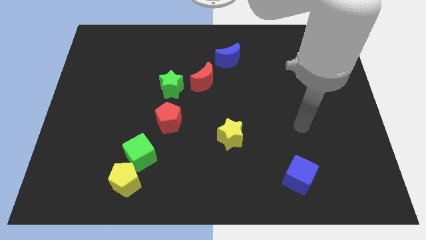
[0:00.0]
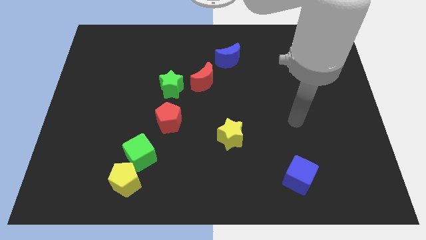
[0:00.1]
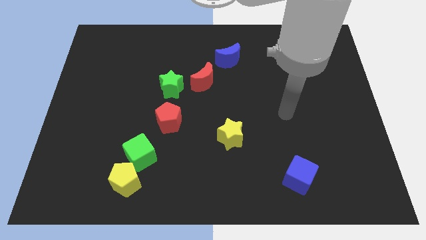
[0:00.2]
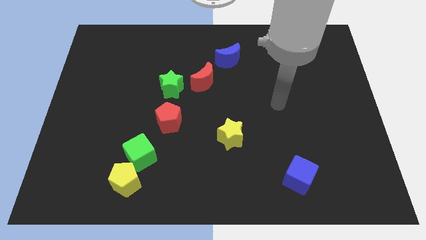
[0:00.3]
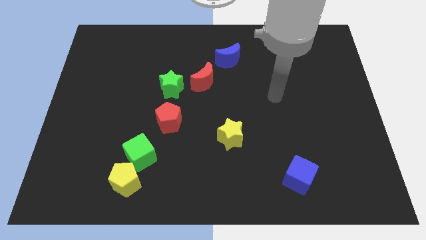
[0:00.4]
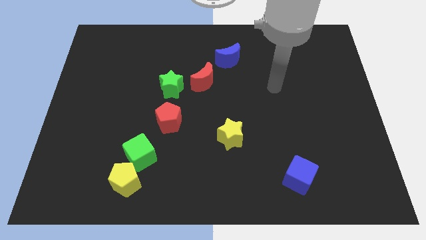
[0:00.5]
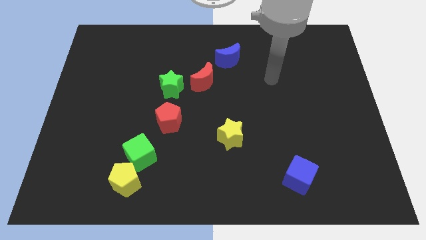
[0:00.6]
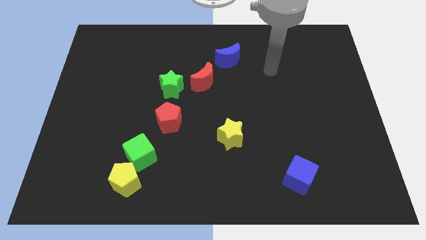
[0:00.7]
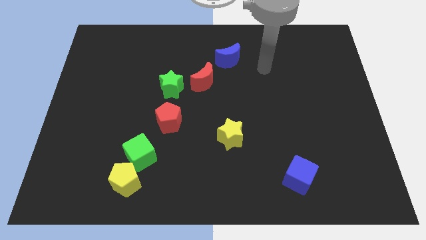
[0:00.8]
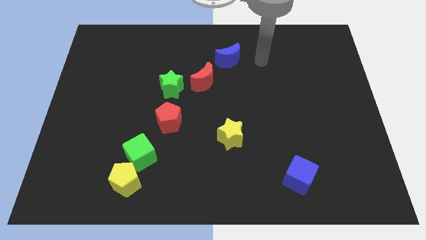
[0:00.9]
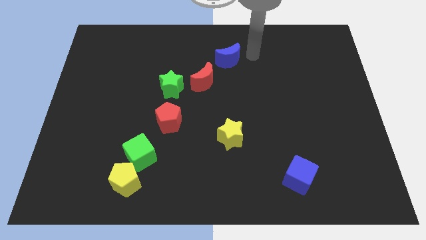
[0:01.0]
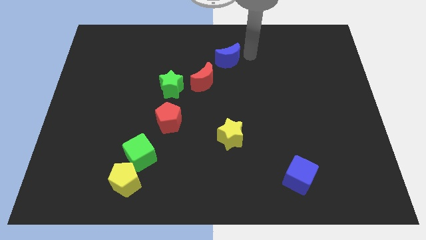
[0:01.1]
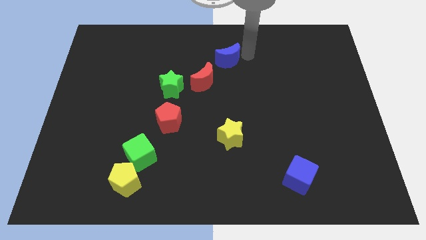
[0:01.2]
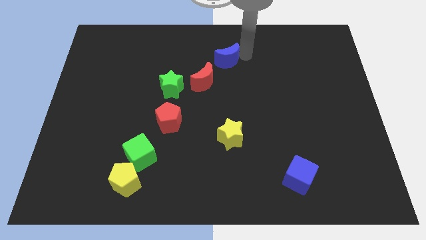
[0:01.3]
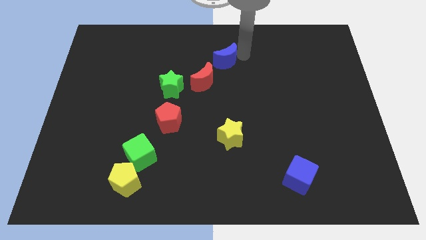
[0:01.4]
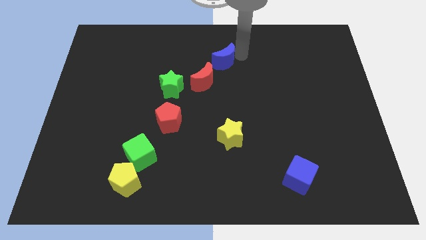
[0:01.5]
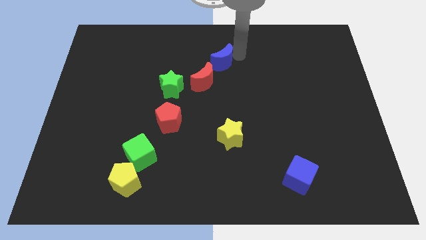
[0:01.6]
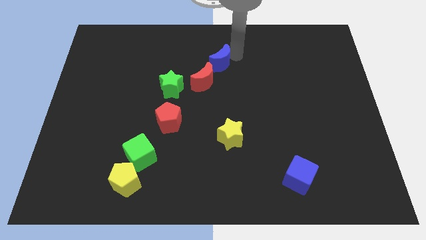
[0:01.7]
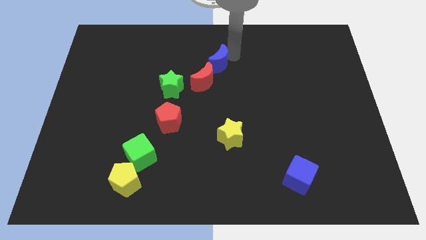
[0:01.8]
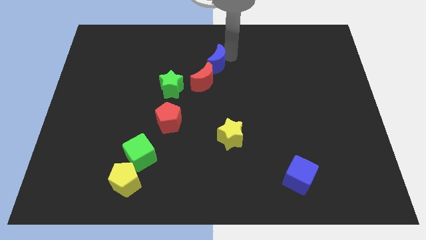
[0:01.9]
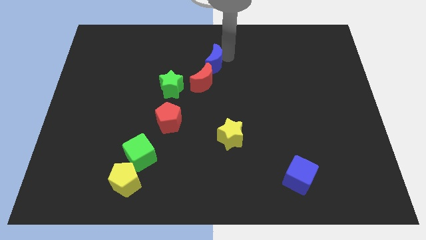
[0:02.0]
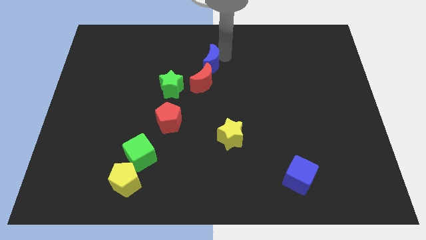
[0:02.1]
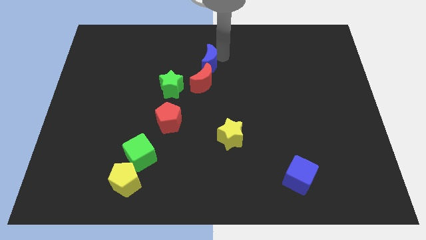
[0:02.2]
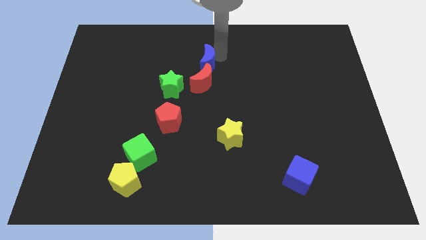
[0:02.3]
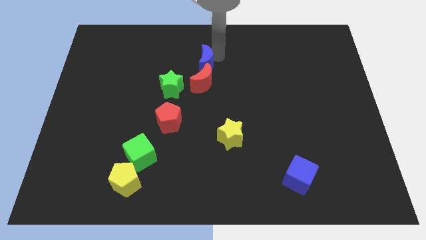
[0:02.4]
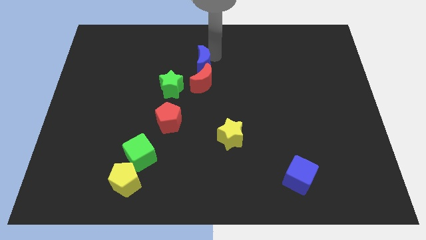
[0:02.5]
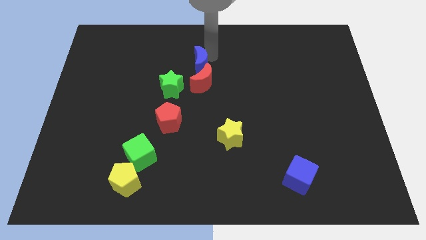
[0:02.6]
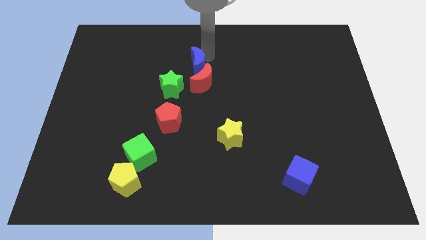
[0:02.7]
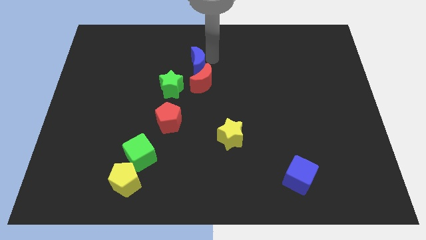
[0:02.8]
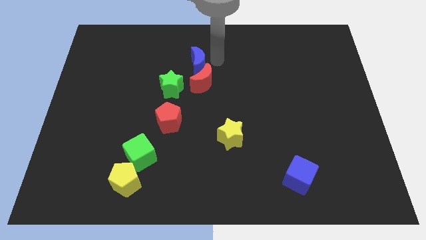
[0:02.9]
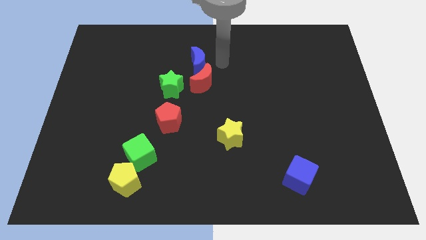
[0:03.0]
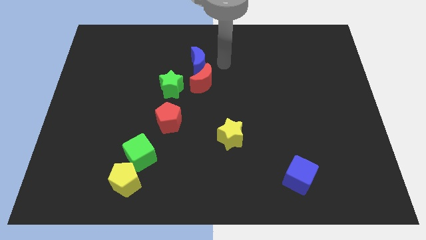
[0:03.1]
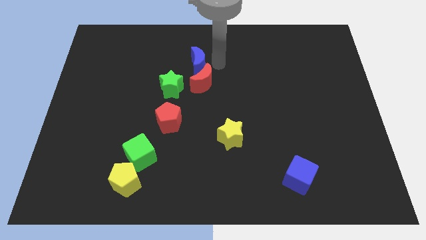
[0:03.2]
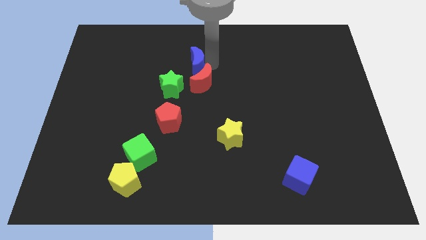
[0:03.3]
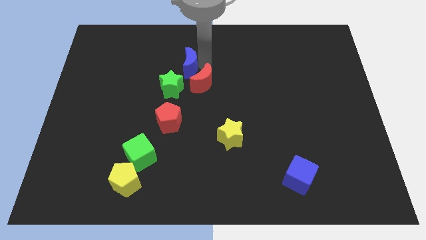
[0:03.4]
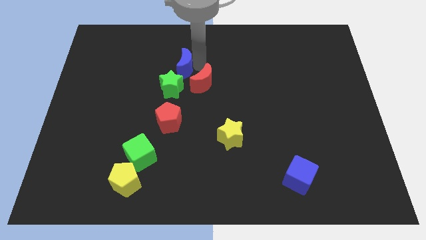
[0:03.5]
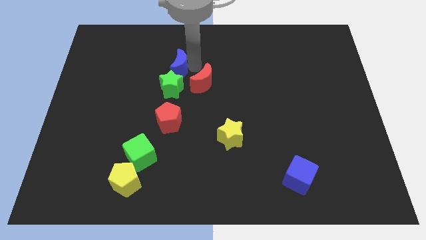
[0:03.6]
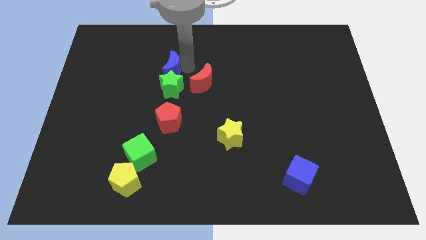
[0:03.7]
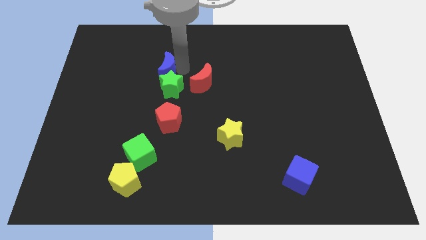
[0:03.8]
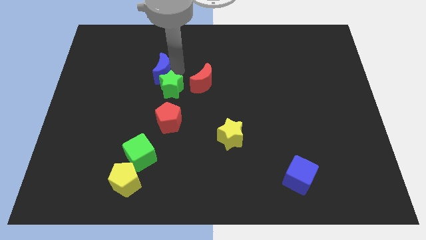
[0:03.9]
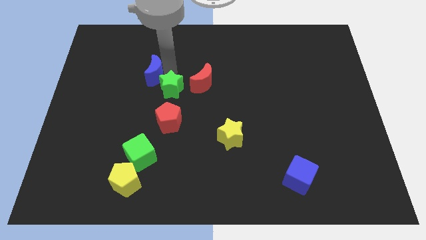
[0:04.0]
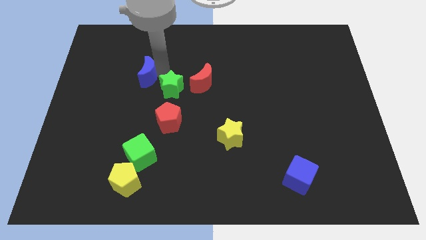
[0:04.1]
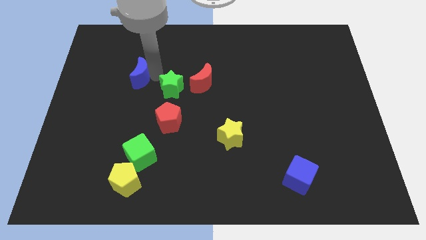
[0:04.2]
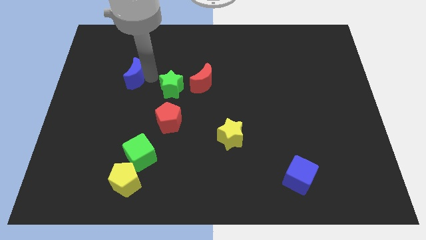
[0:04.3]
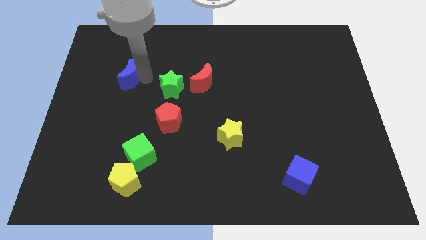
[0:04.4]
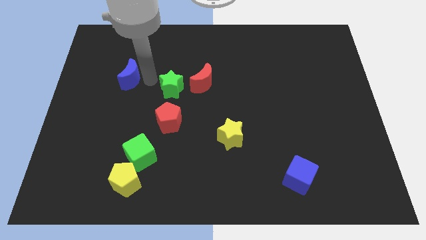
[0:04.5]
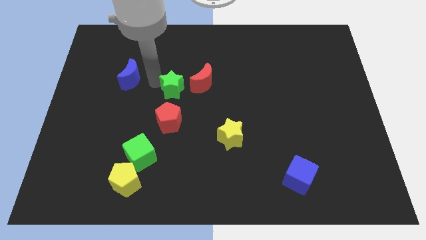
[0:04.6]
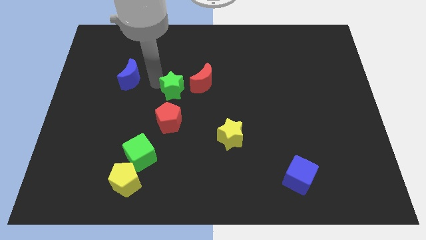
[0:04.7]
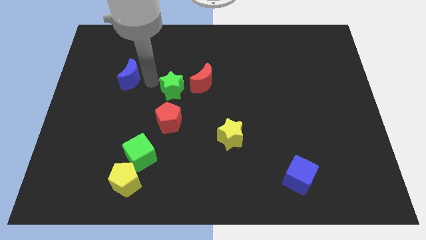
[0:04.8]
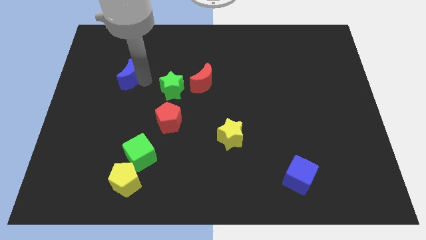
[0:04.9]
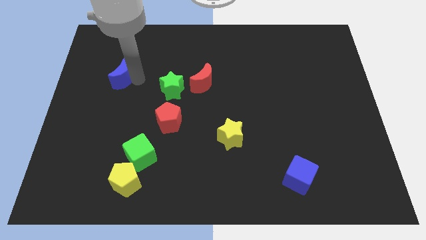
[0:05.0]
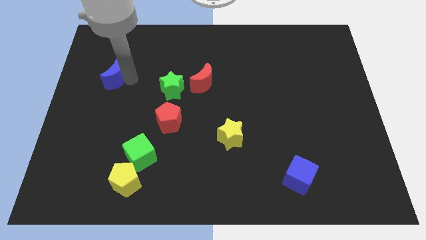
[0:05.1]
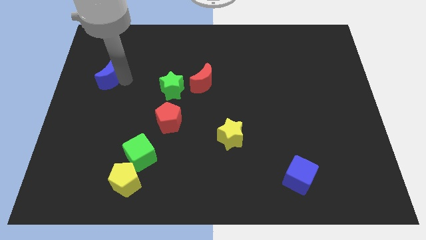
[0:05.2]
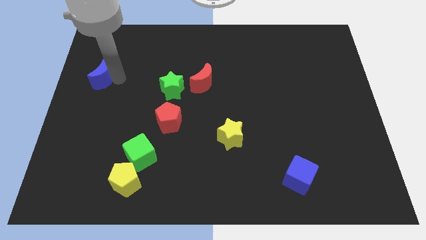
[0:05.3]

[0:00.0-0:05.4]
push the blue moon to the left side

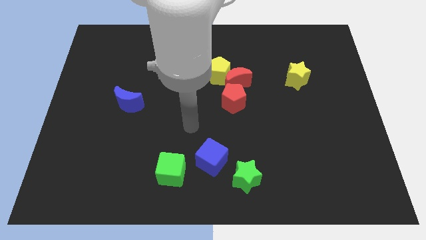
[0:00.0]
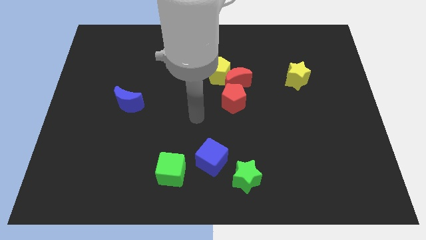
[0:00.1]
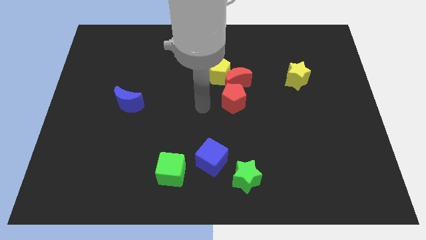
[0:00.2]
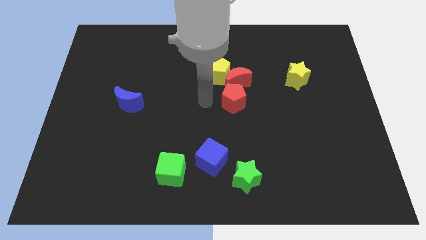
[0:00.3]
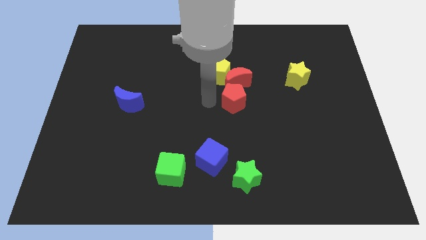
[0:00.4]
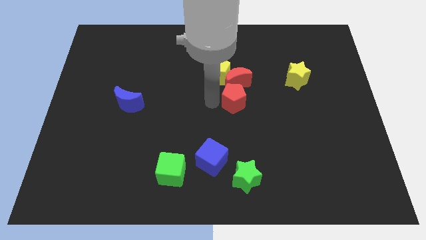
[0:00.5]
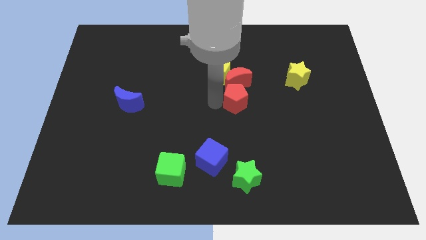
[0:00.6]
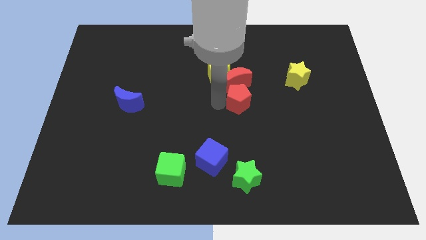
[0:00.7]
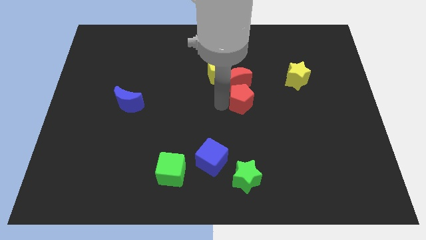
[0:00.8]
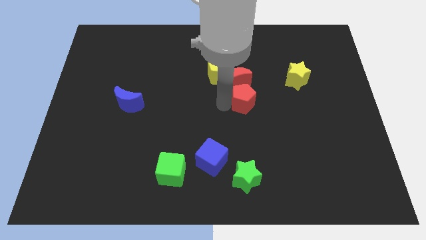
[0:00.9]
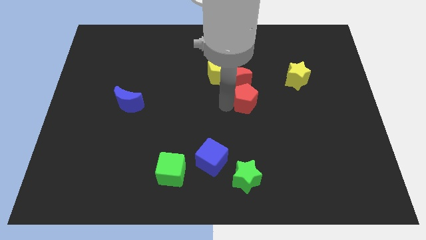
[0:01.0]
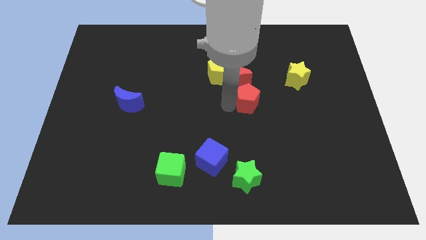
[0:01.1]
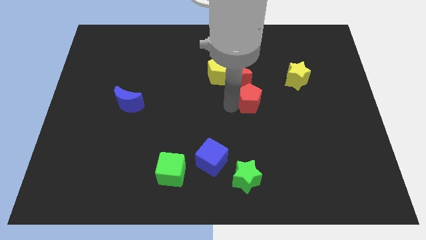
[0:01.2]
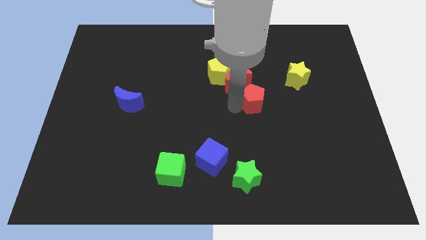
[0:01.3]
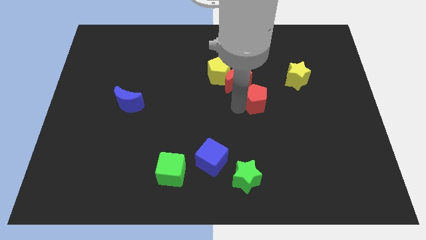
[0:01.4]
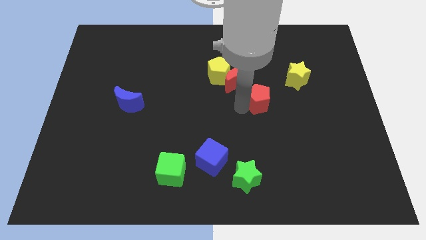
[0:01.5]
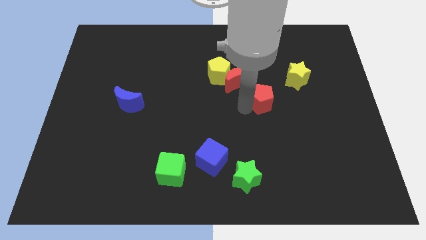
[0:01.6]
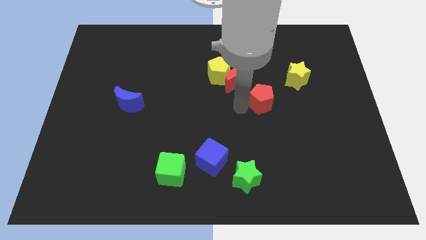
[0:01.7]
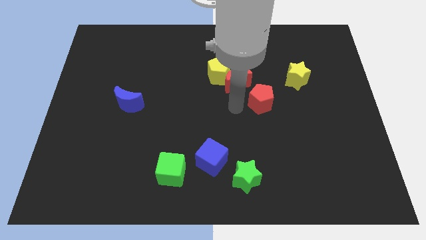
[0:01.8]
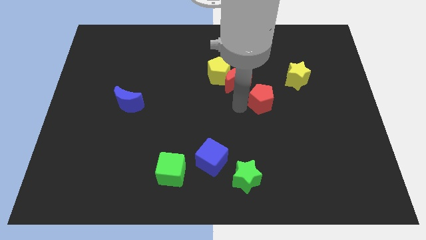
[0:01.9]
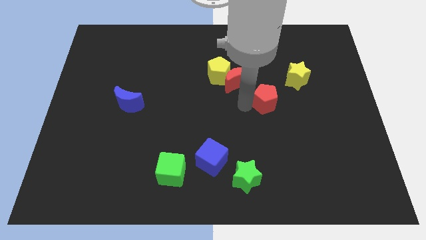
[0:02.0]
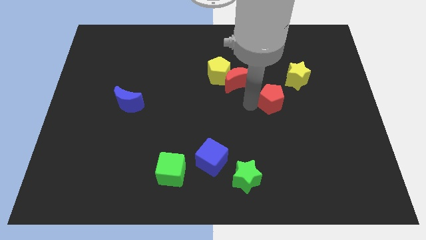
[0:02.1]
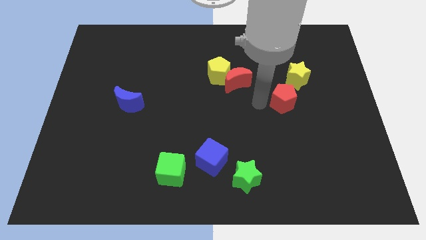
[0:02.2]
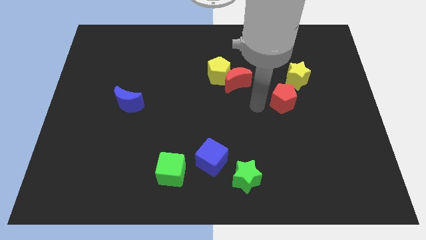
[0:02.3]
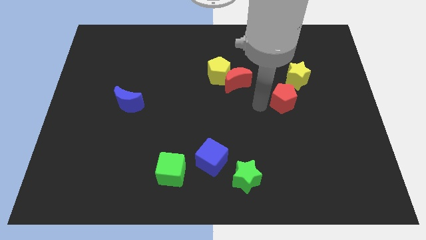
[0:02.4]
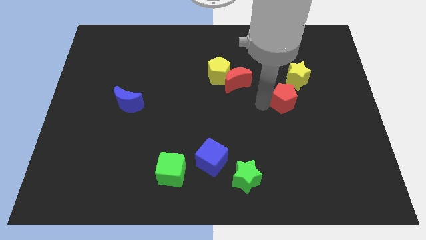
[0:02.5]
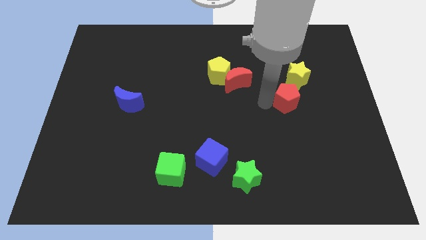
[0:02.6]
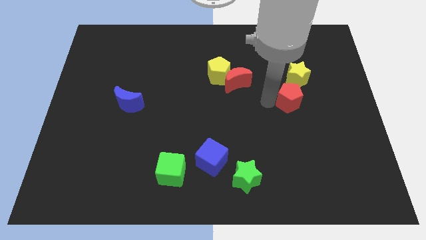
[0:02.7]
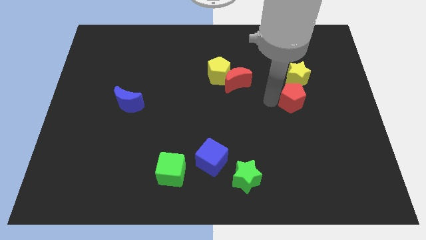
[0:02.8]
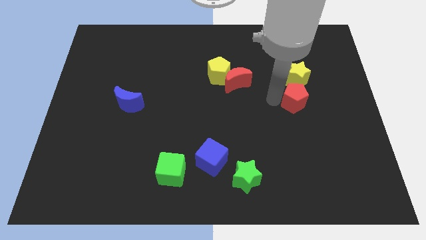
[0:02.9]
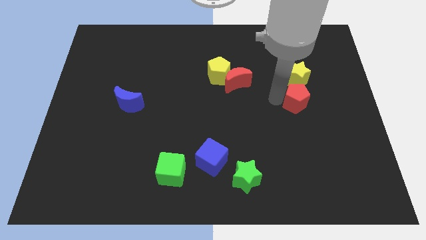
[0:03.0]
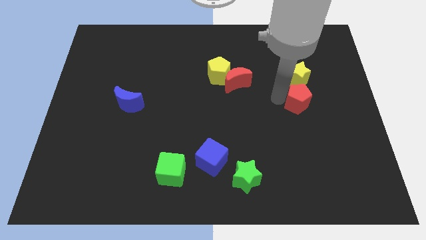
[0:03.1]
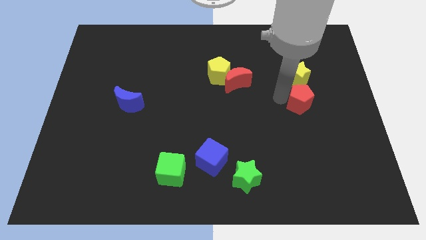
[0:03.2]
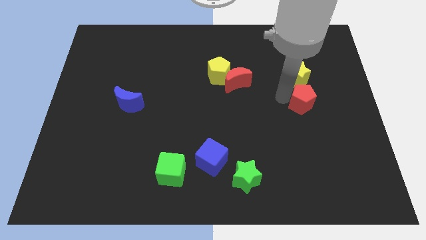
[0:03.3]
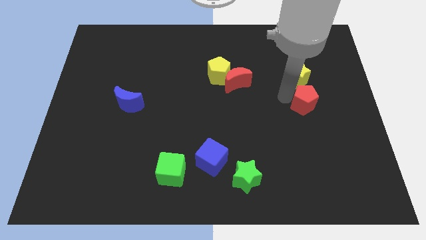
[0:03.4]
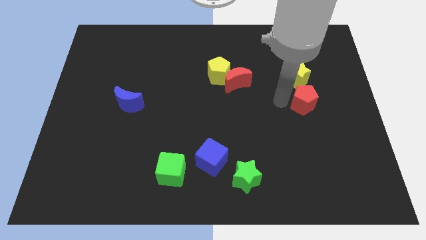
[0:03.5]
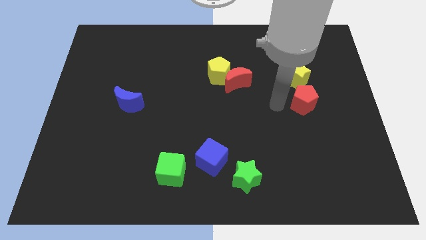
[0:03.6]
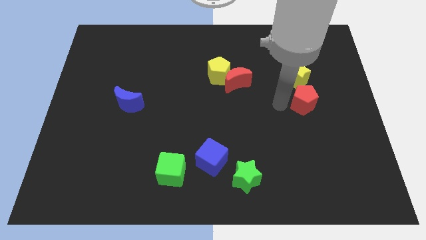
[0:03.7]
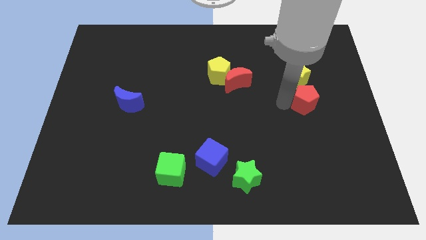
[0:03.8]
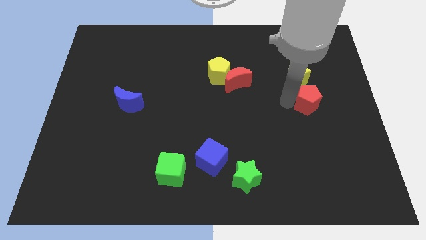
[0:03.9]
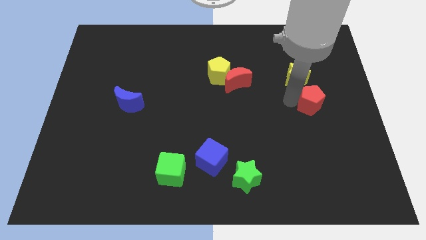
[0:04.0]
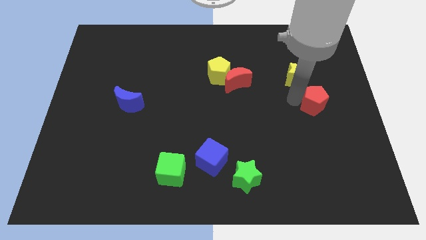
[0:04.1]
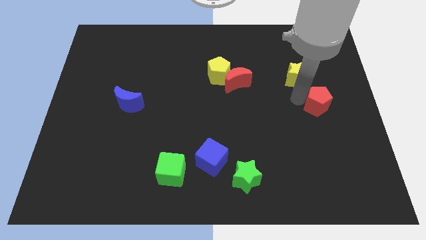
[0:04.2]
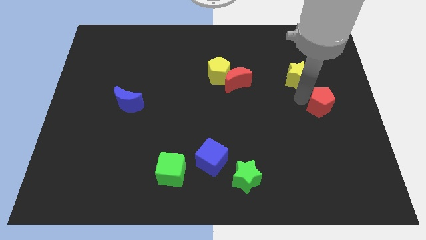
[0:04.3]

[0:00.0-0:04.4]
put the red pentagon to the right side of the board
